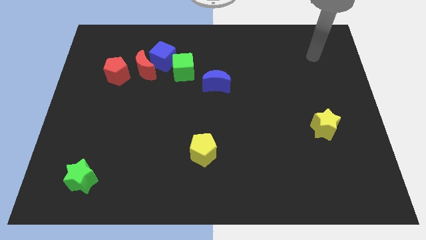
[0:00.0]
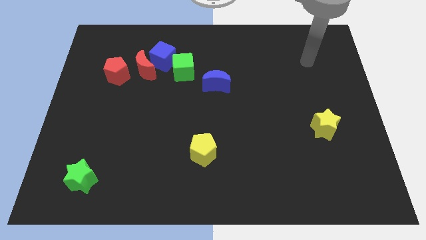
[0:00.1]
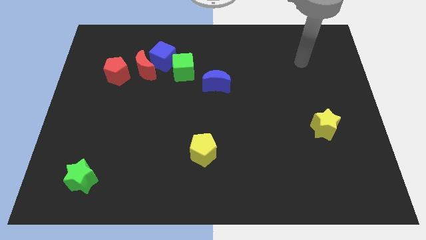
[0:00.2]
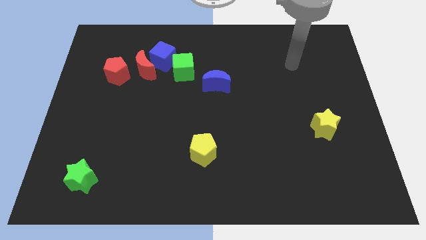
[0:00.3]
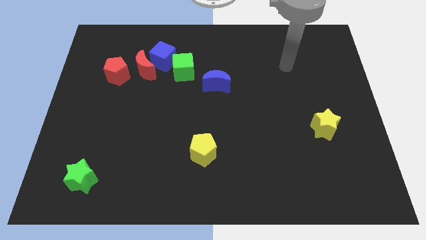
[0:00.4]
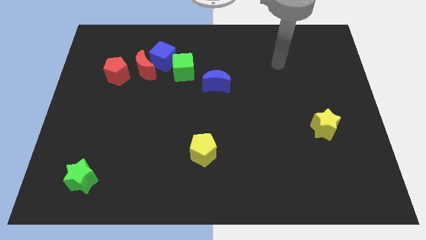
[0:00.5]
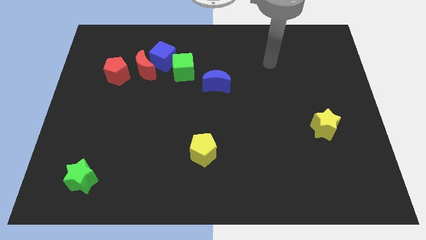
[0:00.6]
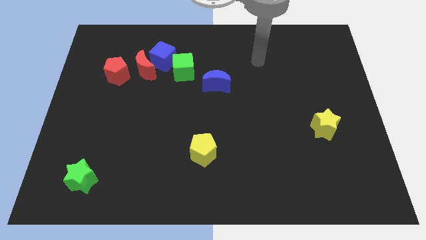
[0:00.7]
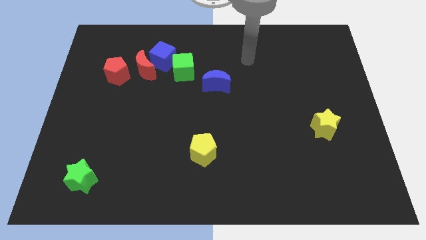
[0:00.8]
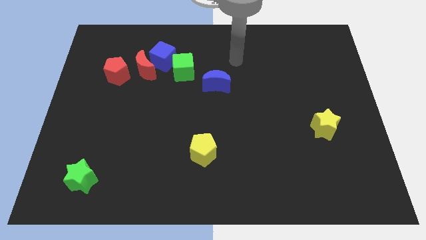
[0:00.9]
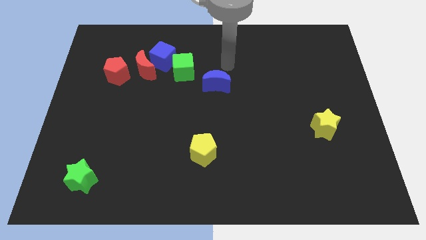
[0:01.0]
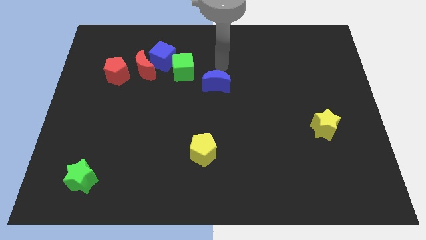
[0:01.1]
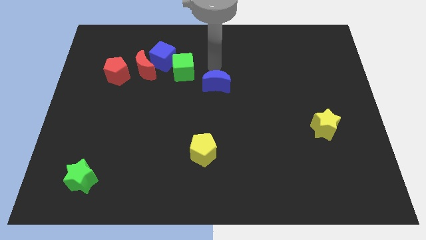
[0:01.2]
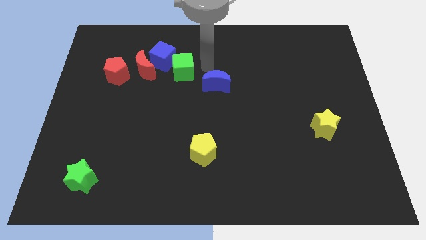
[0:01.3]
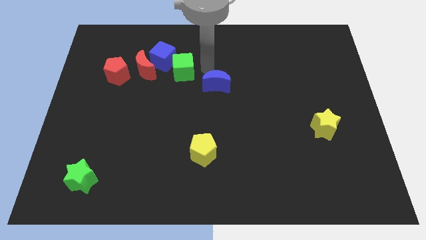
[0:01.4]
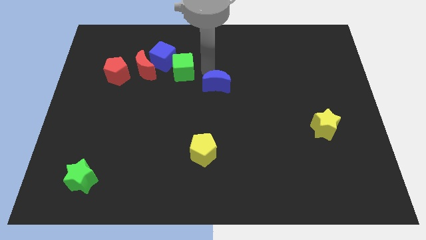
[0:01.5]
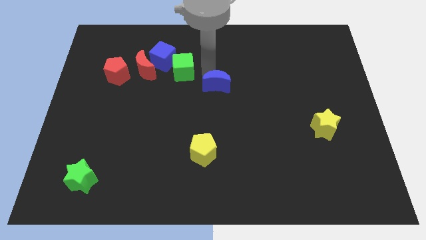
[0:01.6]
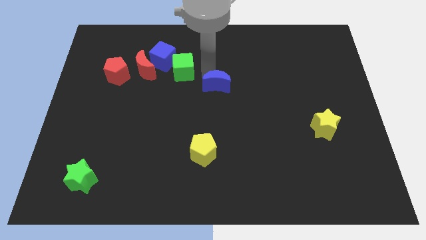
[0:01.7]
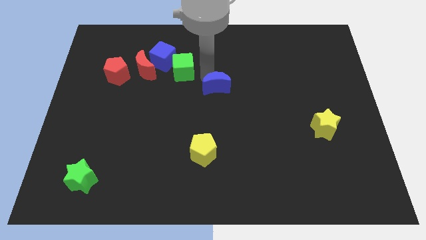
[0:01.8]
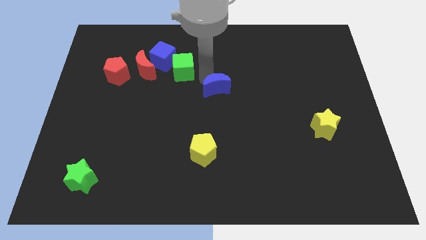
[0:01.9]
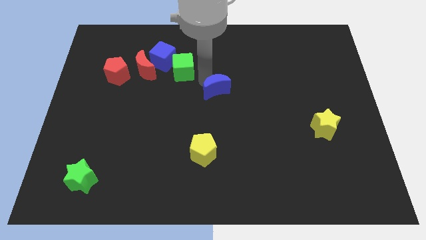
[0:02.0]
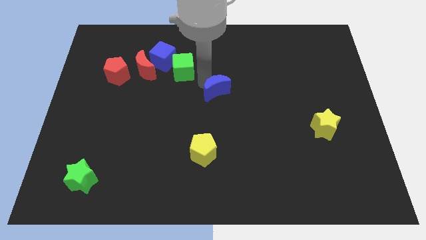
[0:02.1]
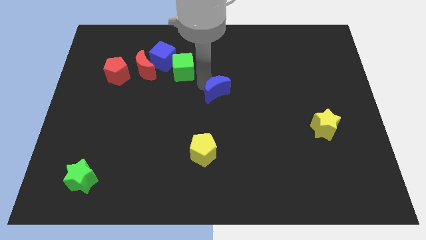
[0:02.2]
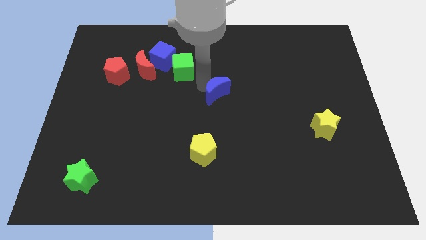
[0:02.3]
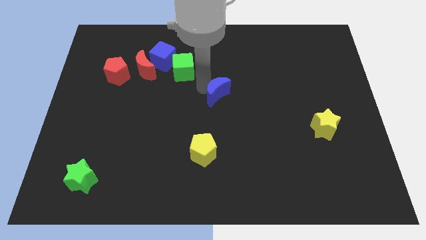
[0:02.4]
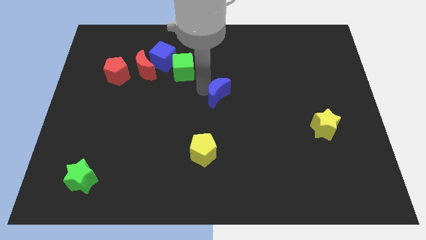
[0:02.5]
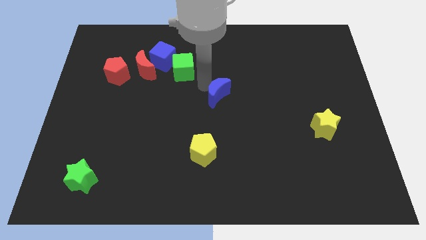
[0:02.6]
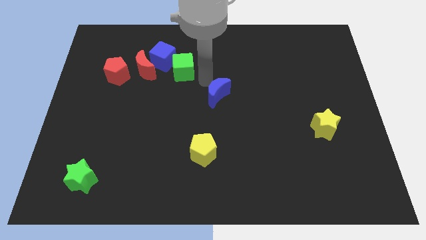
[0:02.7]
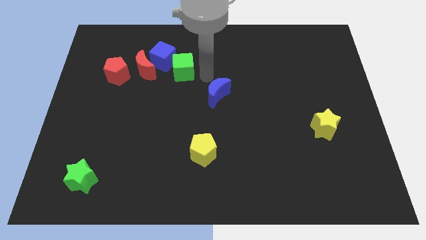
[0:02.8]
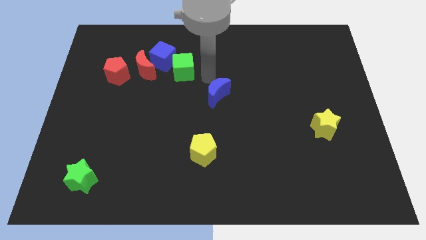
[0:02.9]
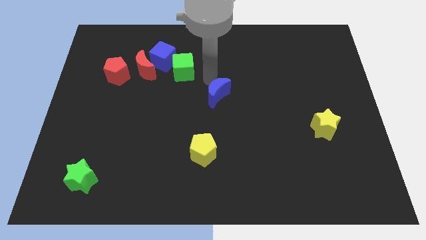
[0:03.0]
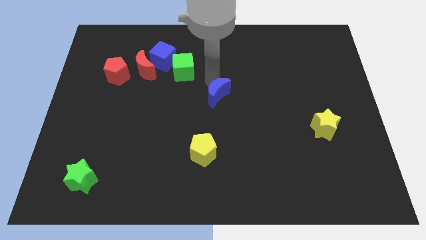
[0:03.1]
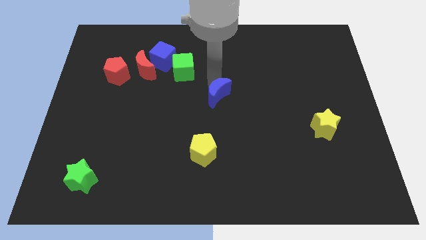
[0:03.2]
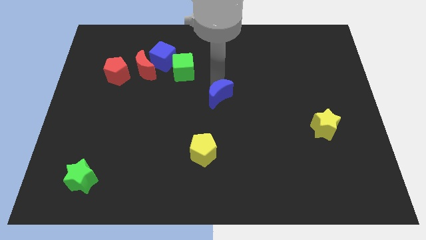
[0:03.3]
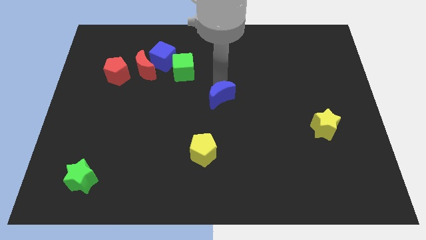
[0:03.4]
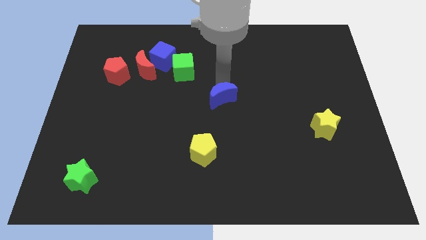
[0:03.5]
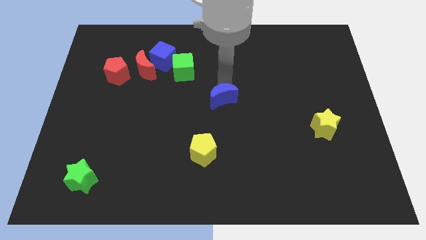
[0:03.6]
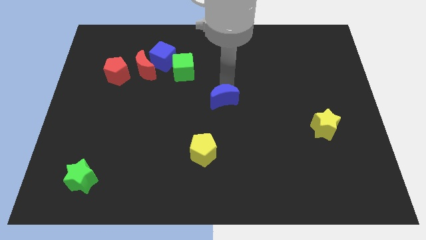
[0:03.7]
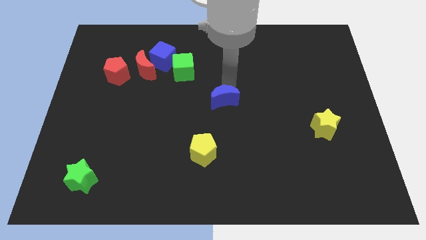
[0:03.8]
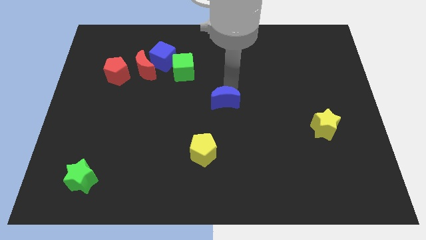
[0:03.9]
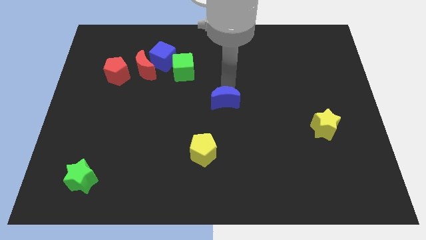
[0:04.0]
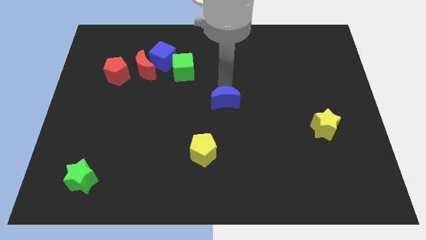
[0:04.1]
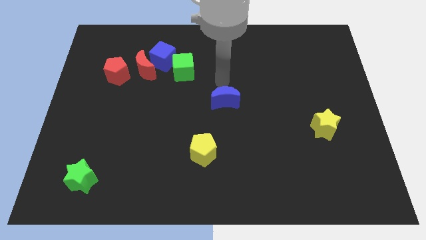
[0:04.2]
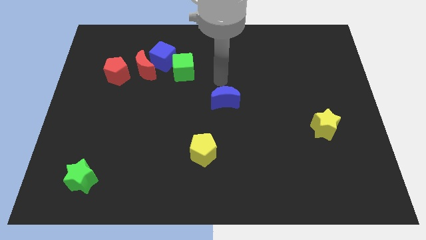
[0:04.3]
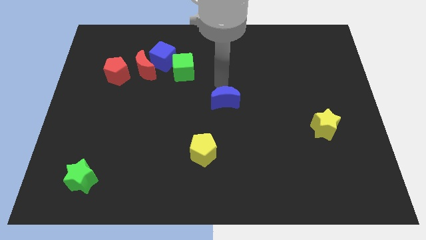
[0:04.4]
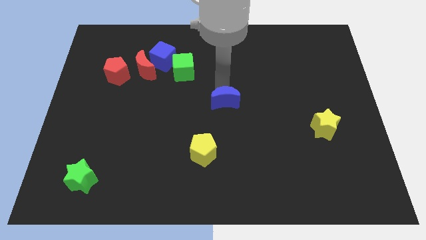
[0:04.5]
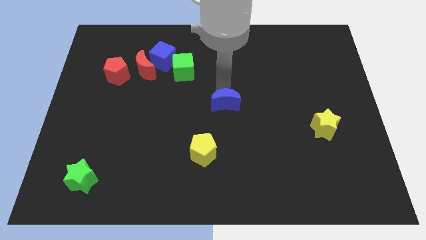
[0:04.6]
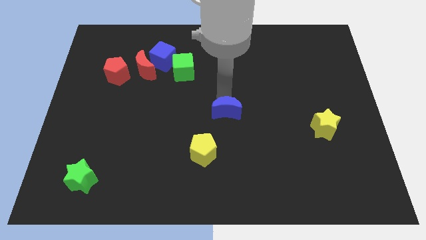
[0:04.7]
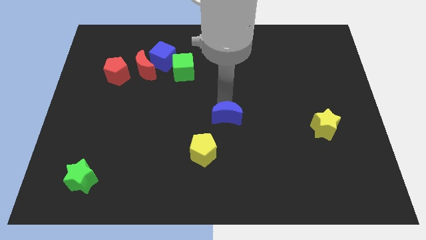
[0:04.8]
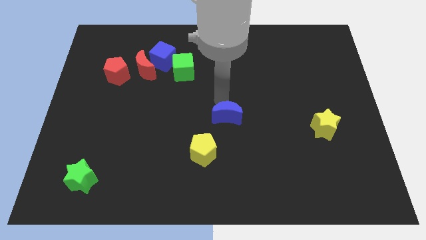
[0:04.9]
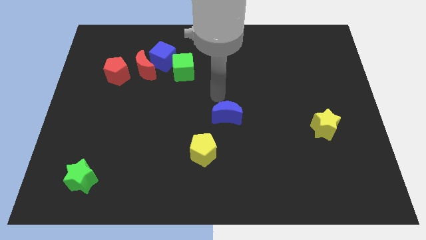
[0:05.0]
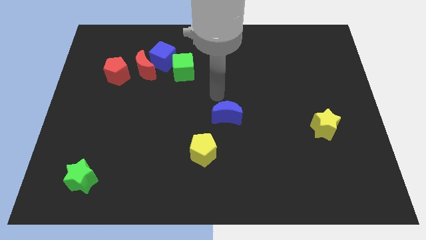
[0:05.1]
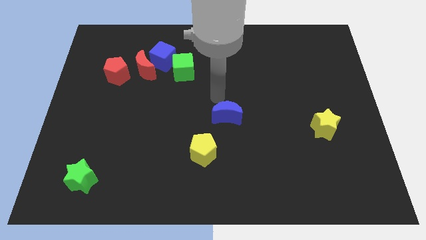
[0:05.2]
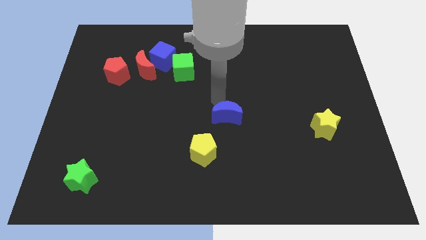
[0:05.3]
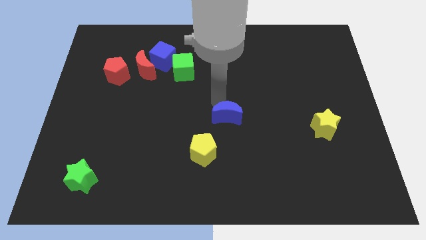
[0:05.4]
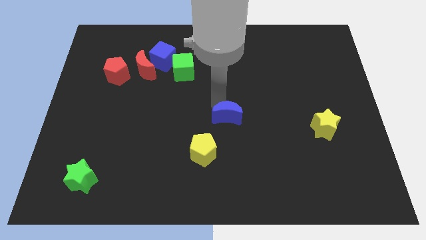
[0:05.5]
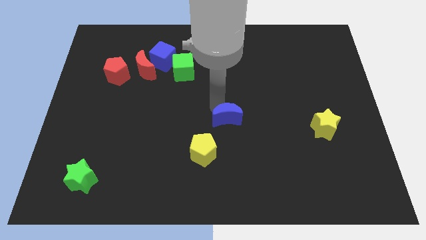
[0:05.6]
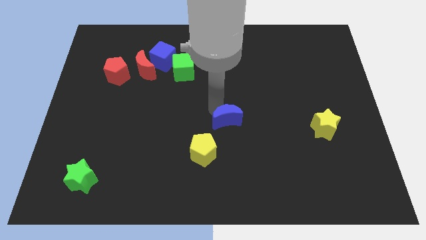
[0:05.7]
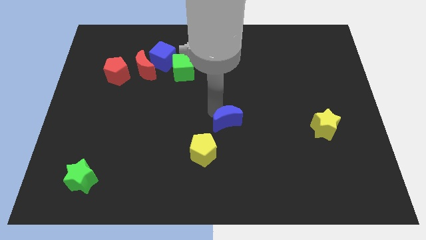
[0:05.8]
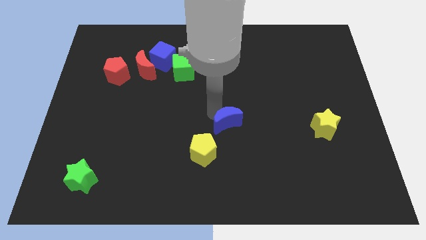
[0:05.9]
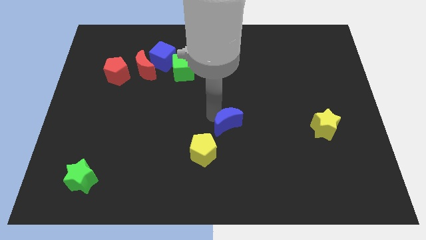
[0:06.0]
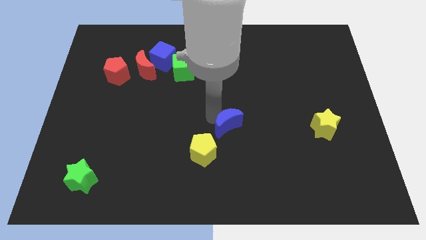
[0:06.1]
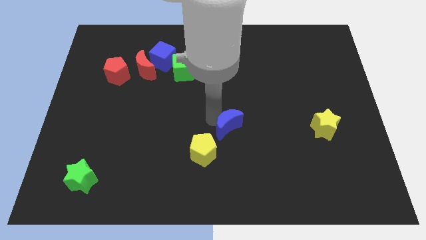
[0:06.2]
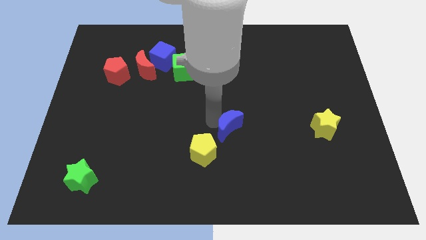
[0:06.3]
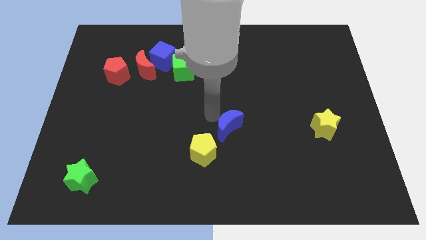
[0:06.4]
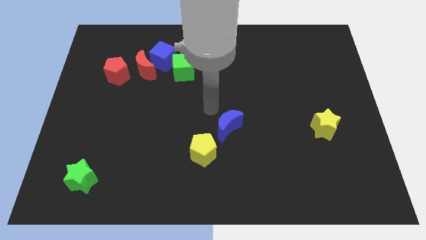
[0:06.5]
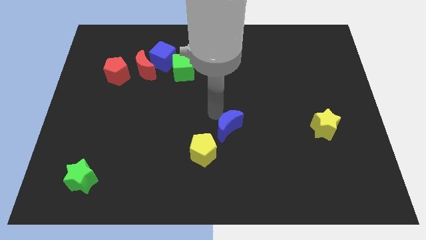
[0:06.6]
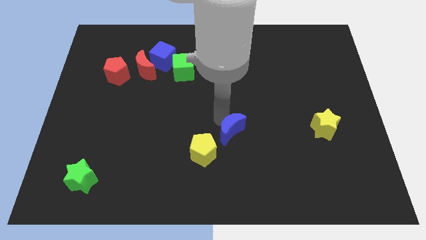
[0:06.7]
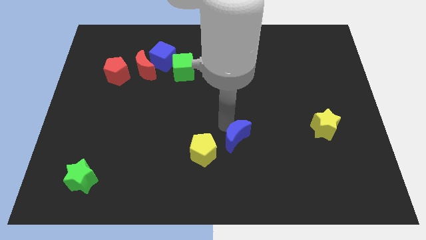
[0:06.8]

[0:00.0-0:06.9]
slide the blue moon to the right of the yellow pentagon
